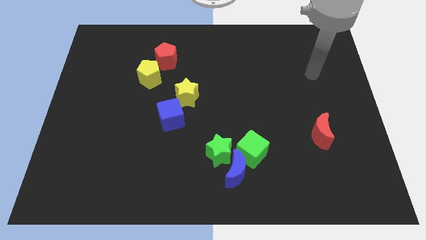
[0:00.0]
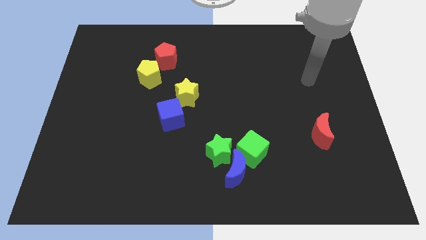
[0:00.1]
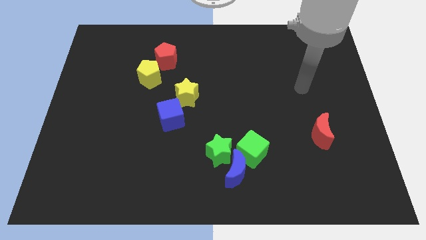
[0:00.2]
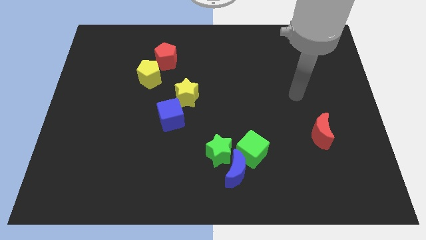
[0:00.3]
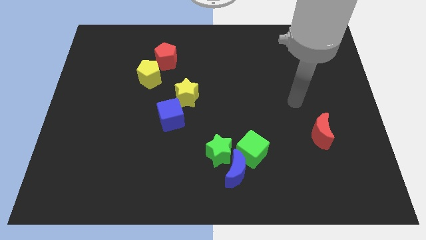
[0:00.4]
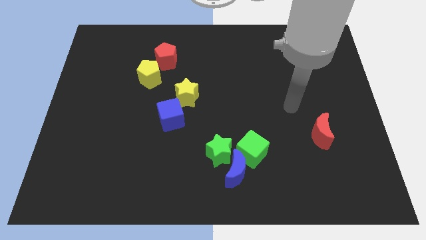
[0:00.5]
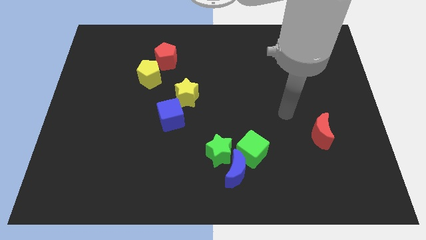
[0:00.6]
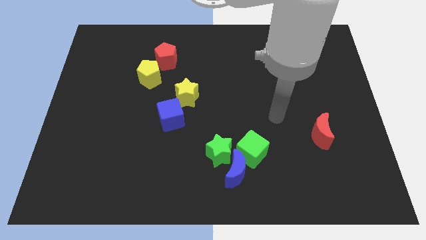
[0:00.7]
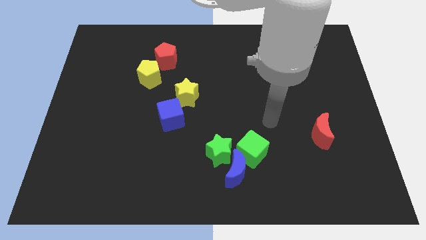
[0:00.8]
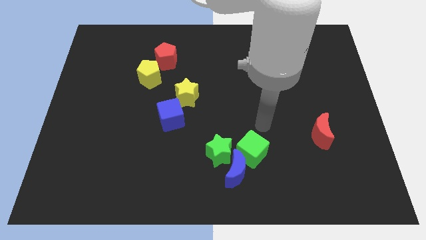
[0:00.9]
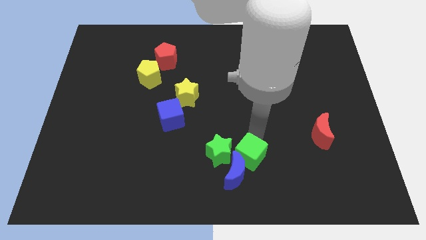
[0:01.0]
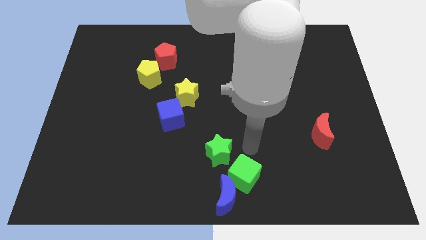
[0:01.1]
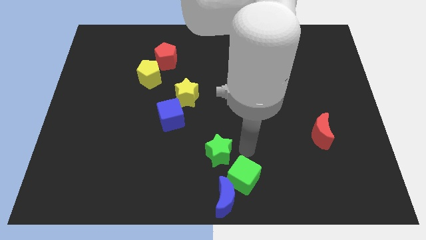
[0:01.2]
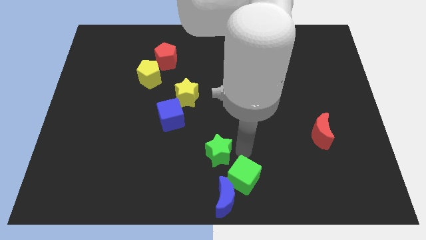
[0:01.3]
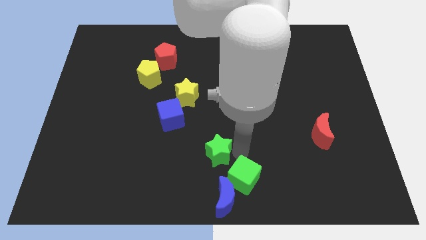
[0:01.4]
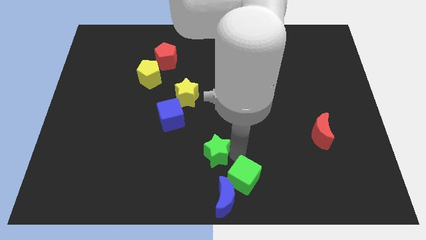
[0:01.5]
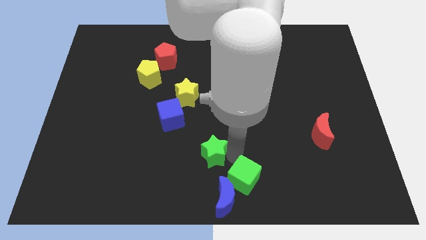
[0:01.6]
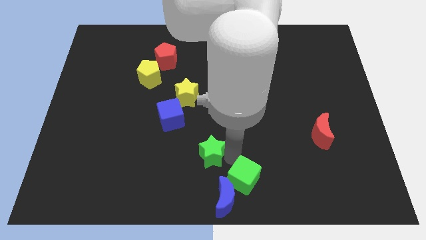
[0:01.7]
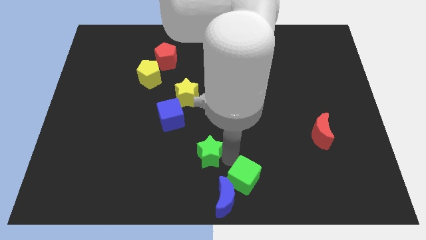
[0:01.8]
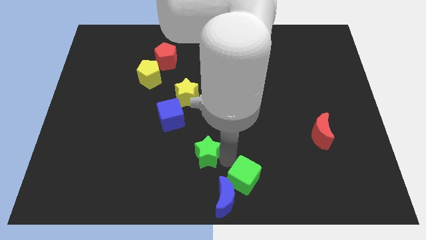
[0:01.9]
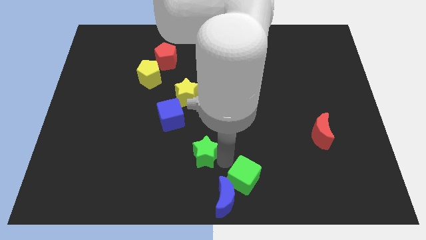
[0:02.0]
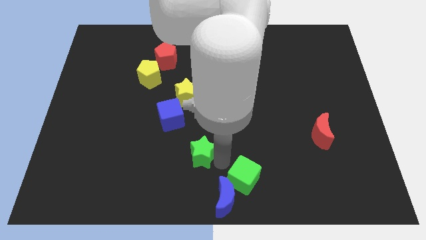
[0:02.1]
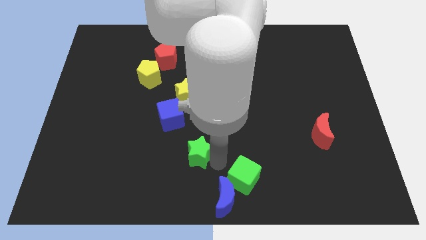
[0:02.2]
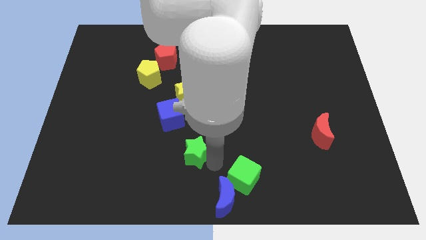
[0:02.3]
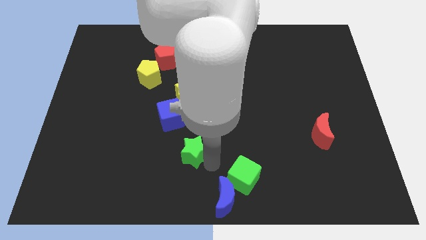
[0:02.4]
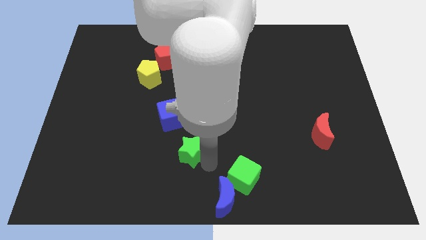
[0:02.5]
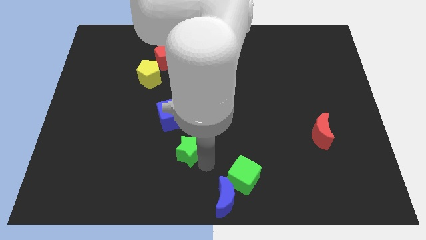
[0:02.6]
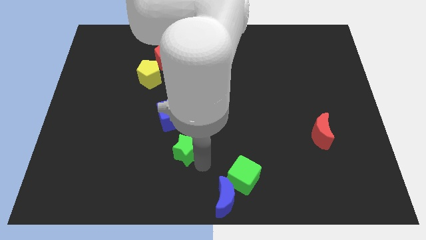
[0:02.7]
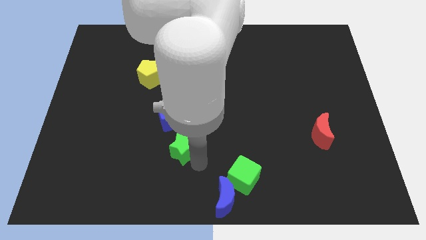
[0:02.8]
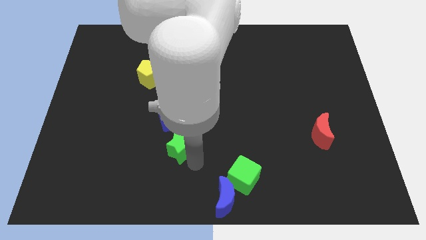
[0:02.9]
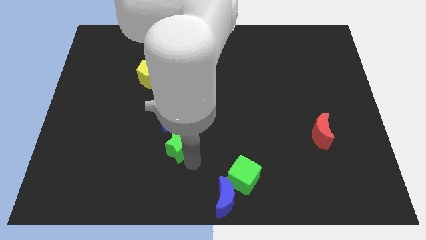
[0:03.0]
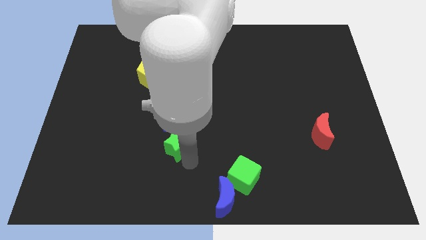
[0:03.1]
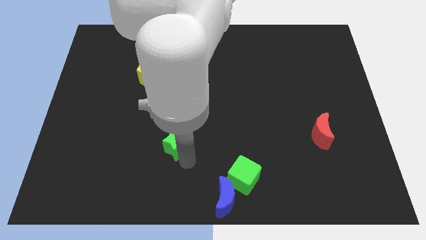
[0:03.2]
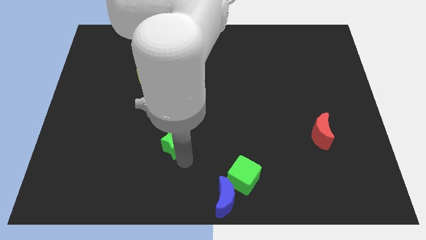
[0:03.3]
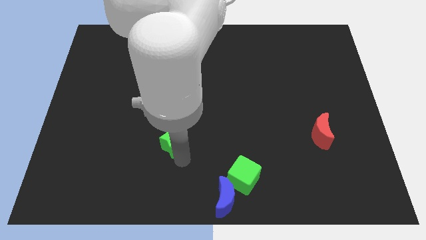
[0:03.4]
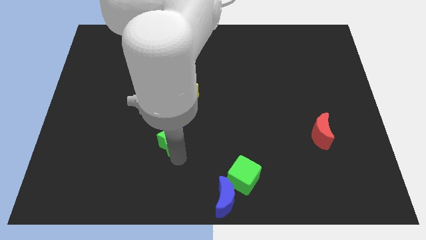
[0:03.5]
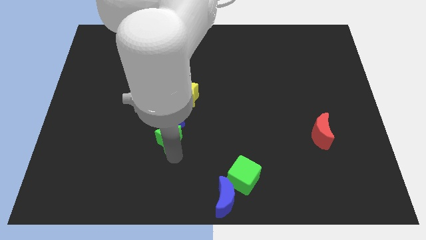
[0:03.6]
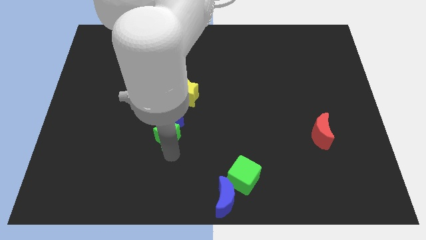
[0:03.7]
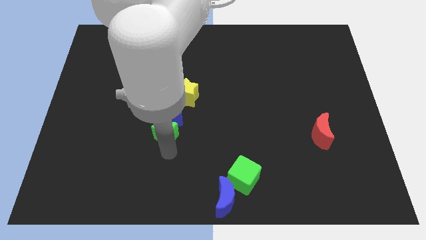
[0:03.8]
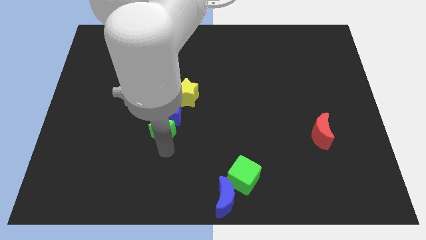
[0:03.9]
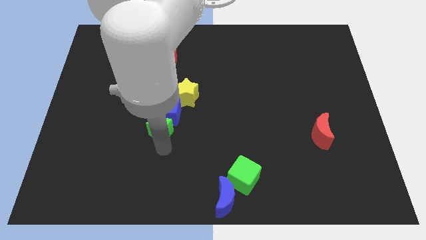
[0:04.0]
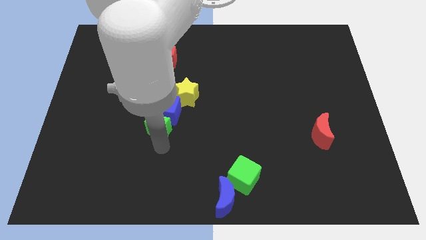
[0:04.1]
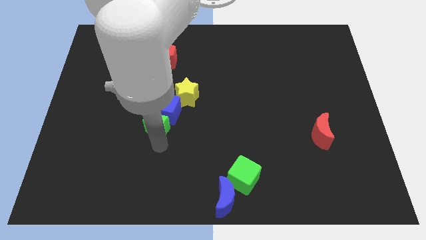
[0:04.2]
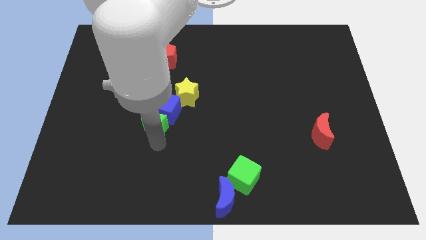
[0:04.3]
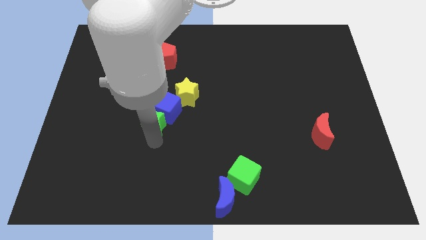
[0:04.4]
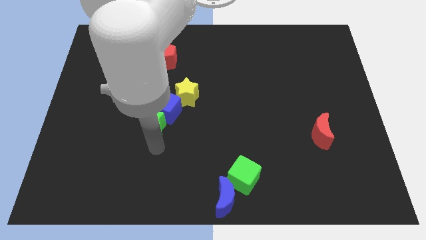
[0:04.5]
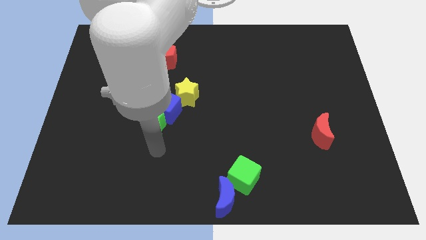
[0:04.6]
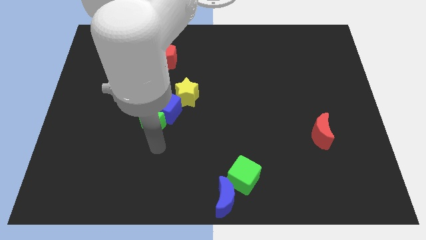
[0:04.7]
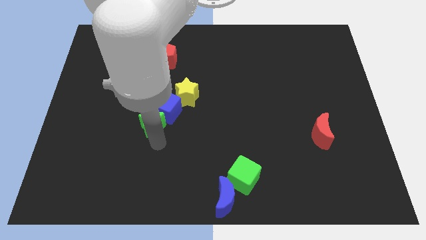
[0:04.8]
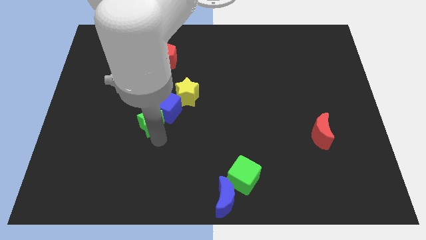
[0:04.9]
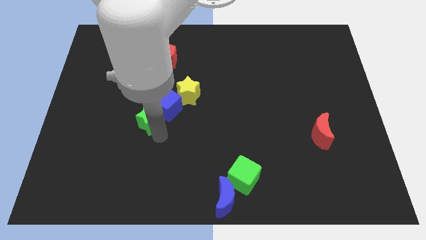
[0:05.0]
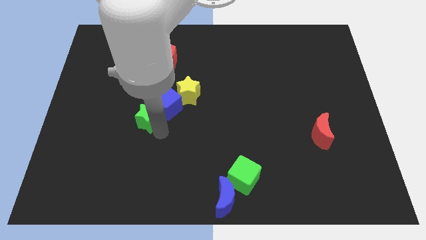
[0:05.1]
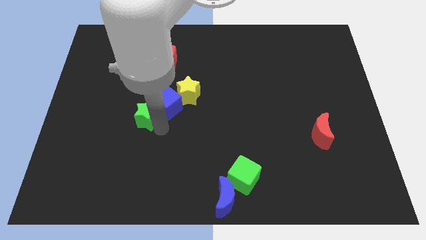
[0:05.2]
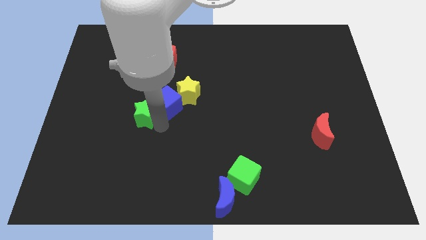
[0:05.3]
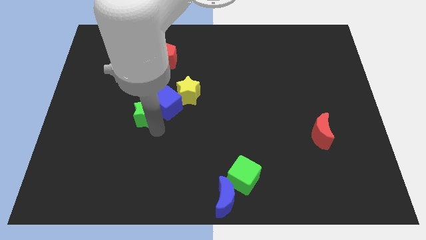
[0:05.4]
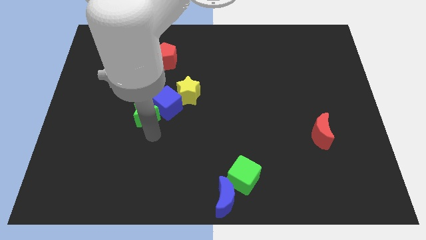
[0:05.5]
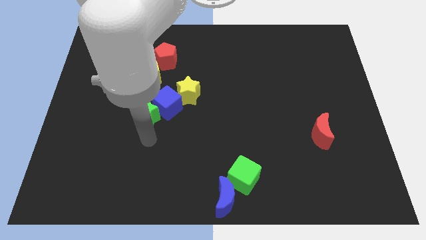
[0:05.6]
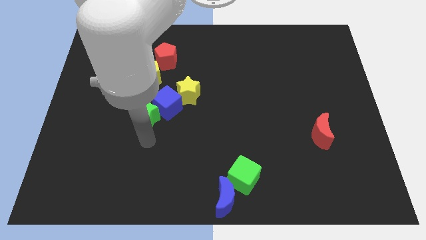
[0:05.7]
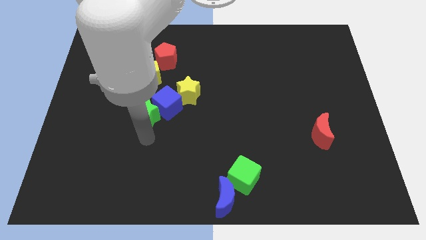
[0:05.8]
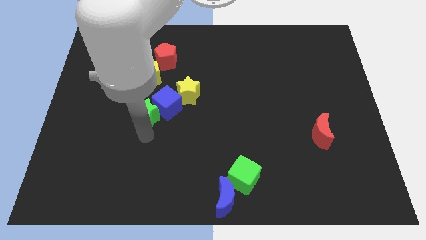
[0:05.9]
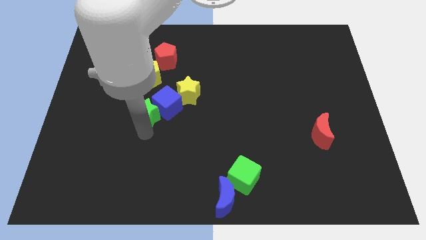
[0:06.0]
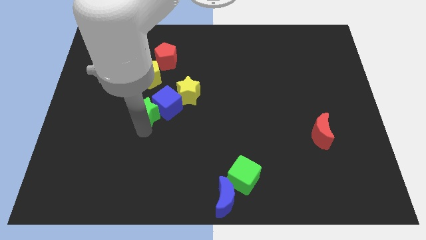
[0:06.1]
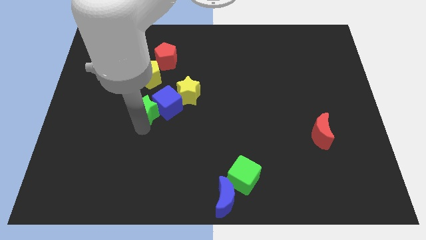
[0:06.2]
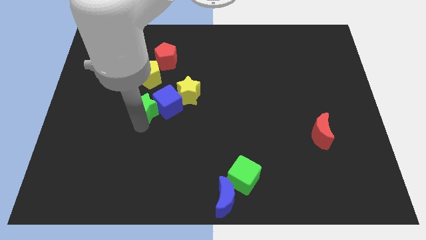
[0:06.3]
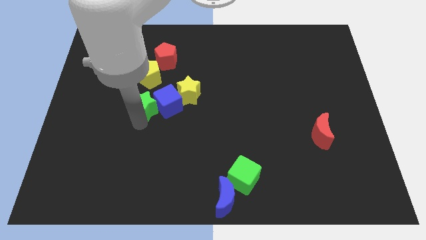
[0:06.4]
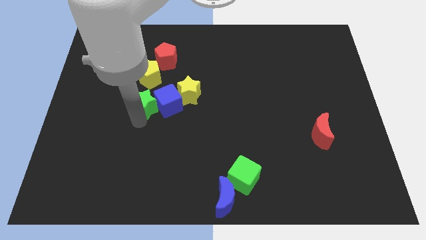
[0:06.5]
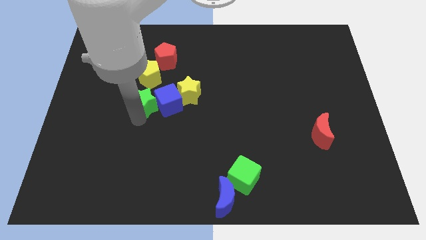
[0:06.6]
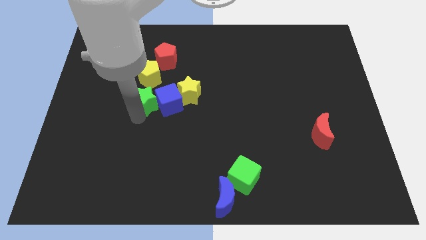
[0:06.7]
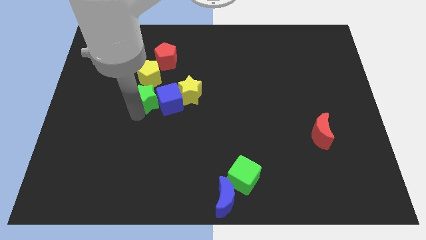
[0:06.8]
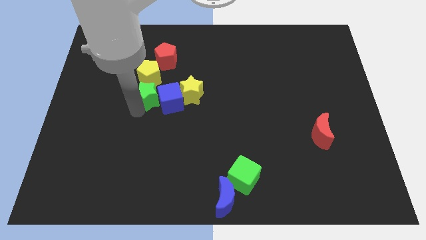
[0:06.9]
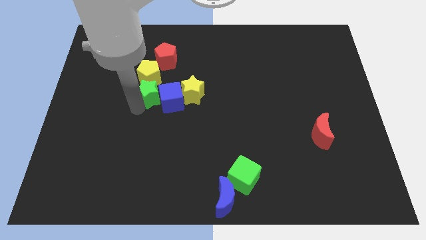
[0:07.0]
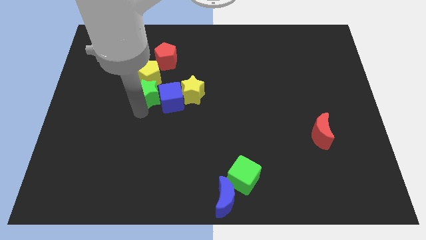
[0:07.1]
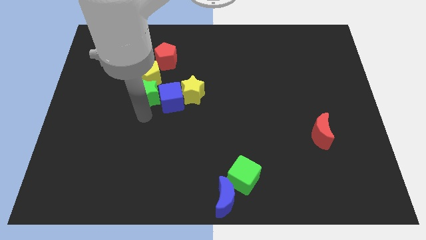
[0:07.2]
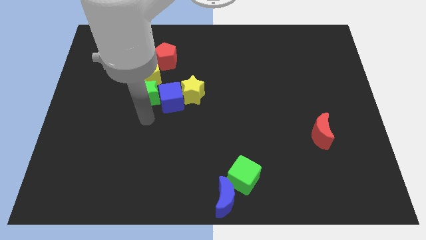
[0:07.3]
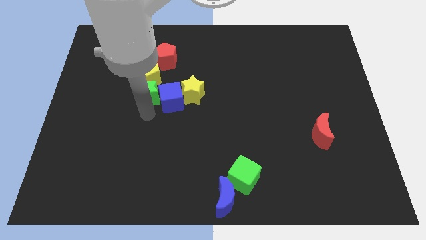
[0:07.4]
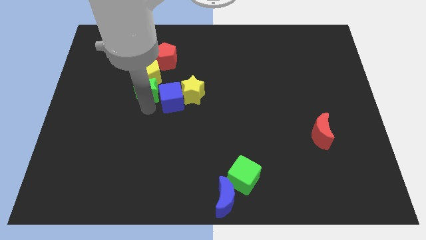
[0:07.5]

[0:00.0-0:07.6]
slide the green star next to the yellow pentagon
